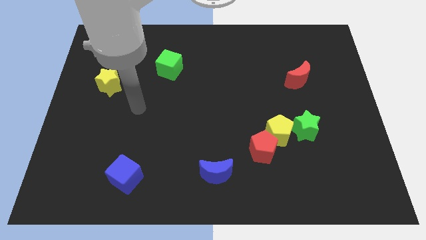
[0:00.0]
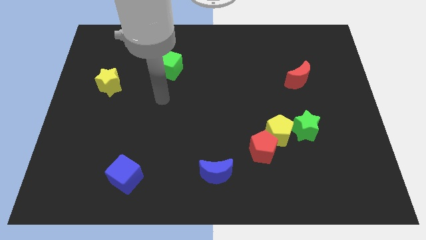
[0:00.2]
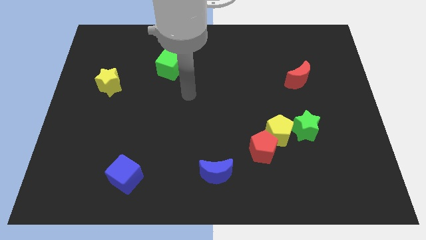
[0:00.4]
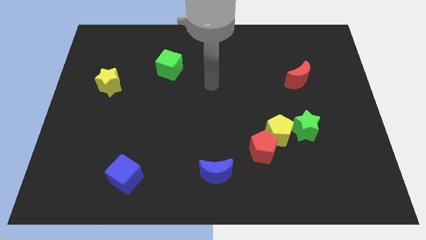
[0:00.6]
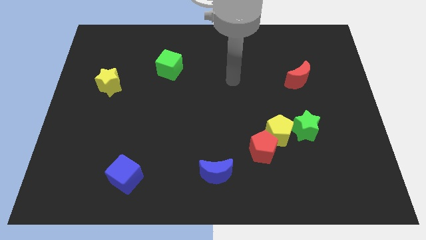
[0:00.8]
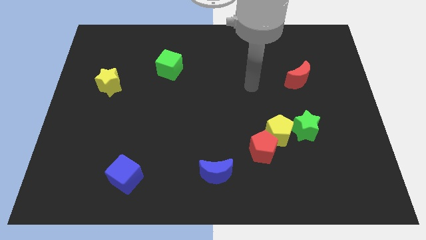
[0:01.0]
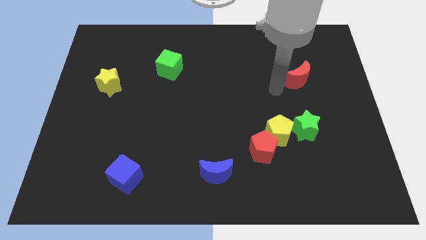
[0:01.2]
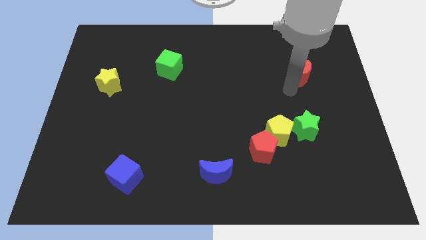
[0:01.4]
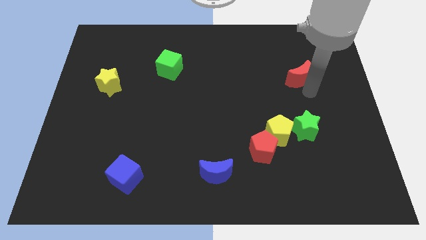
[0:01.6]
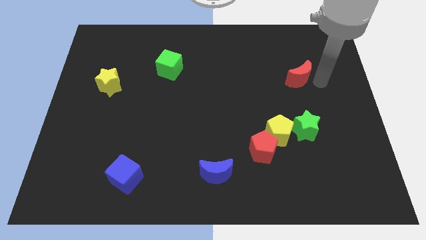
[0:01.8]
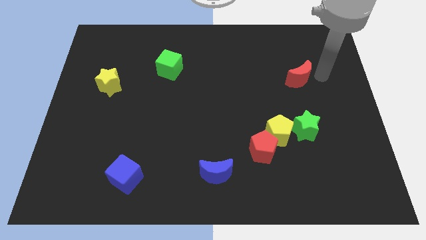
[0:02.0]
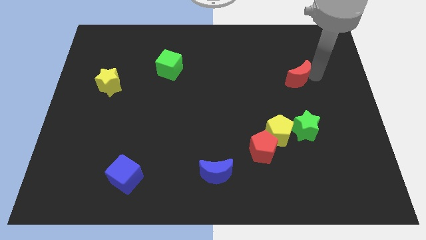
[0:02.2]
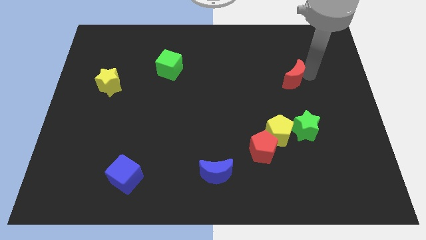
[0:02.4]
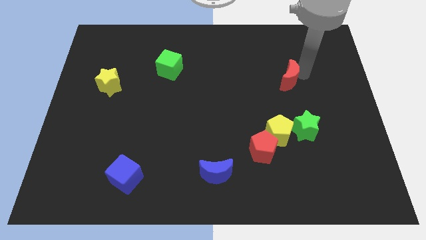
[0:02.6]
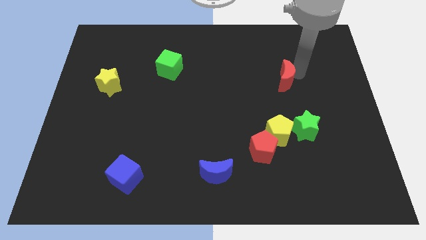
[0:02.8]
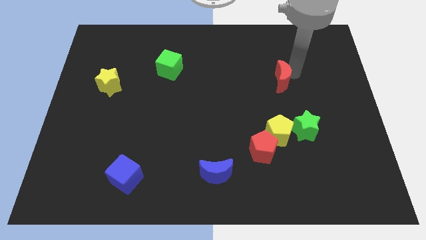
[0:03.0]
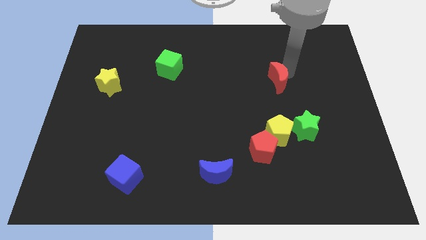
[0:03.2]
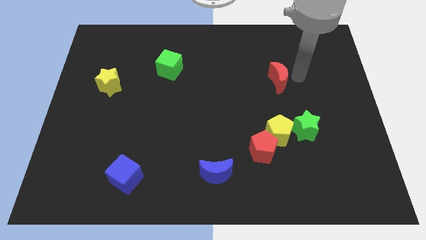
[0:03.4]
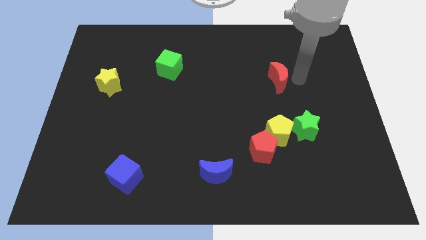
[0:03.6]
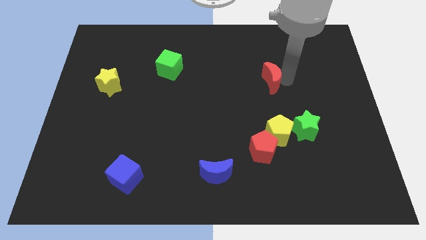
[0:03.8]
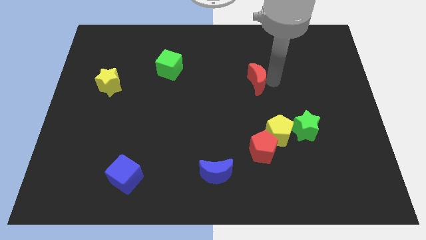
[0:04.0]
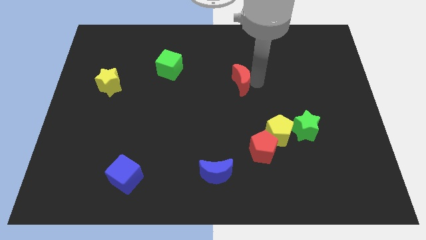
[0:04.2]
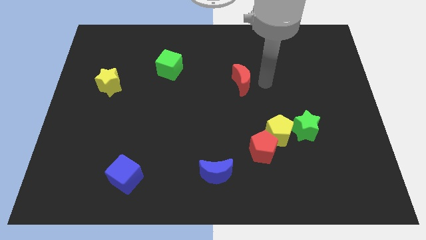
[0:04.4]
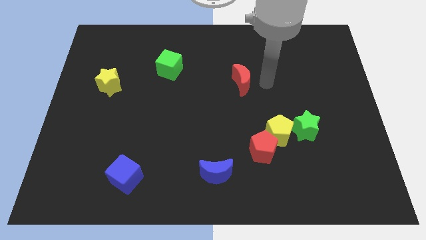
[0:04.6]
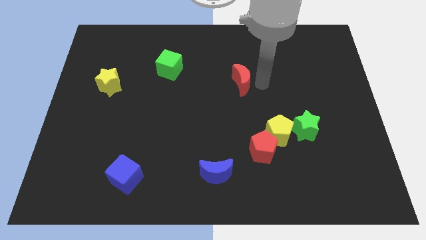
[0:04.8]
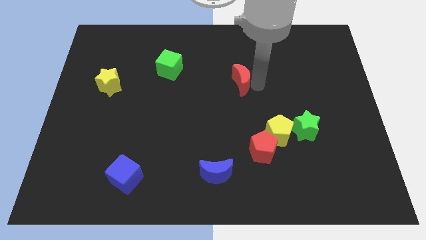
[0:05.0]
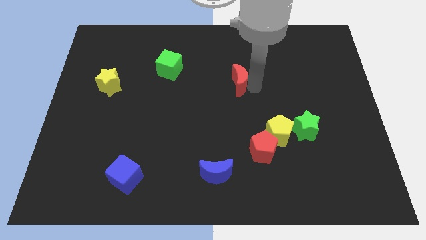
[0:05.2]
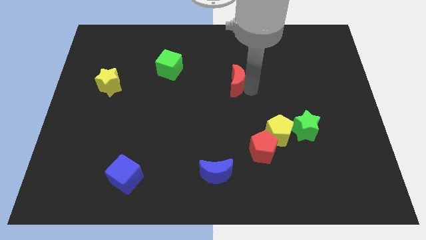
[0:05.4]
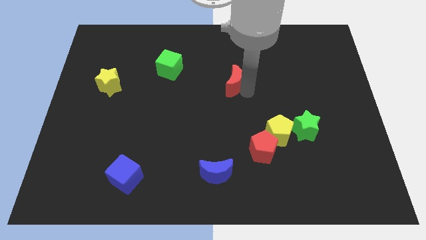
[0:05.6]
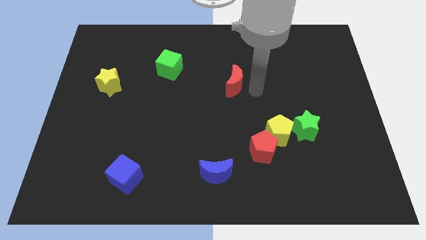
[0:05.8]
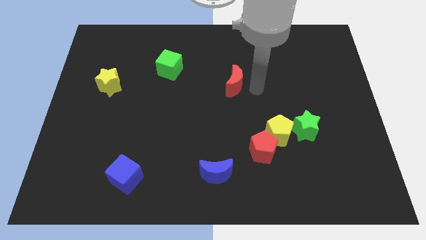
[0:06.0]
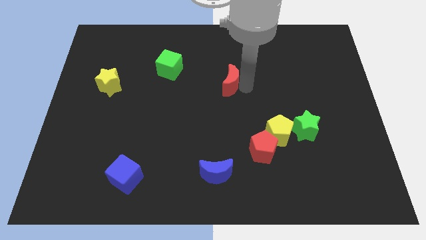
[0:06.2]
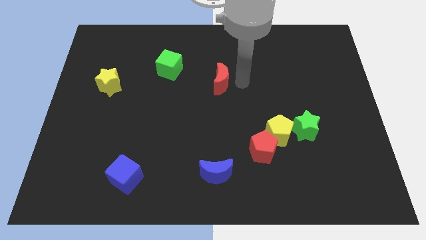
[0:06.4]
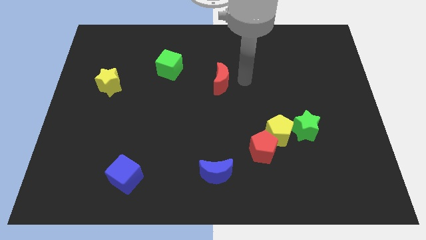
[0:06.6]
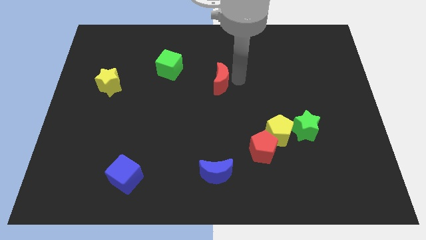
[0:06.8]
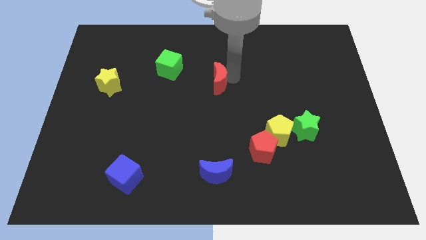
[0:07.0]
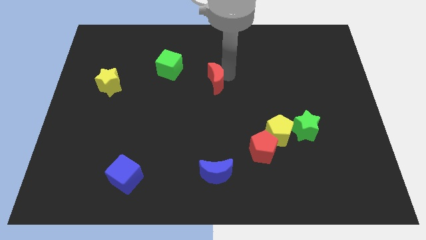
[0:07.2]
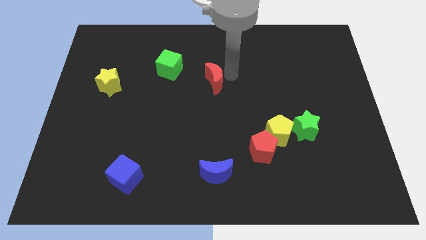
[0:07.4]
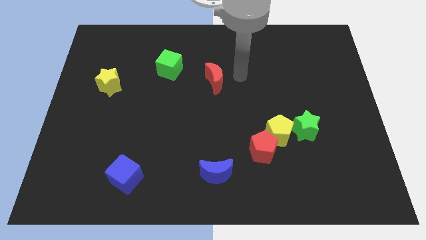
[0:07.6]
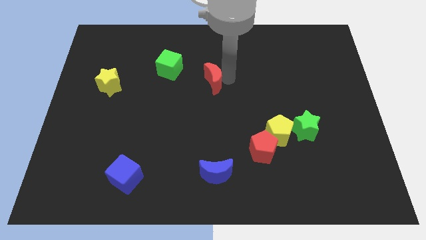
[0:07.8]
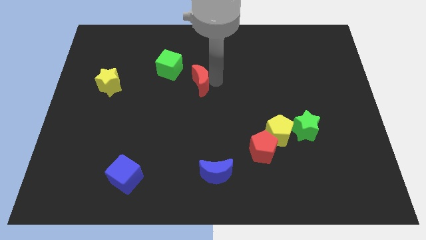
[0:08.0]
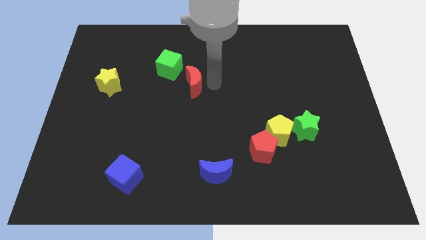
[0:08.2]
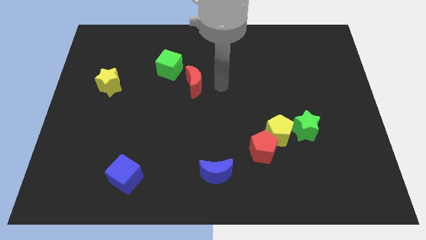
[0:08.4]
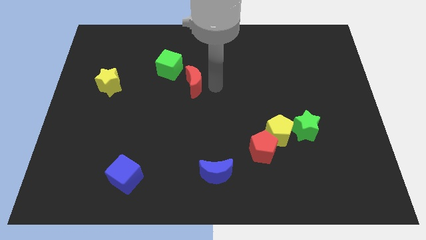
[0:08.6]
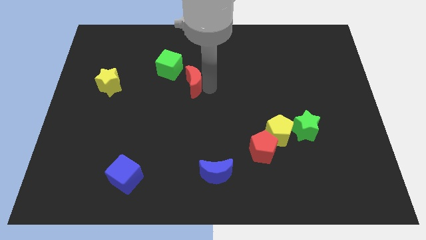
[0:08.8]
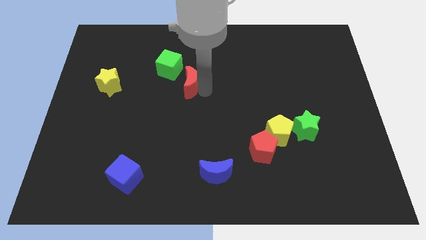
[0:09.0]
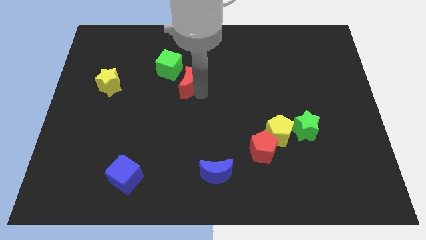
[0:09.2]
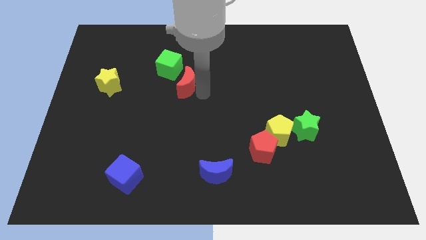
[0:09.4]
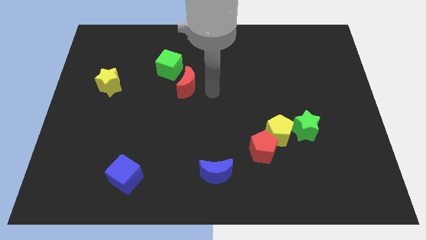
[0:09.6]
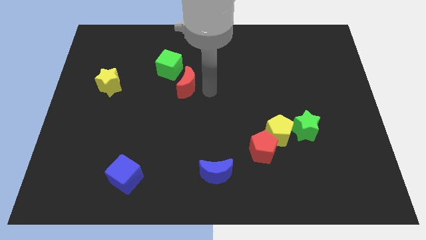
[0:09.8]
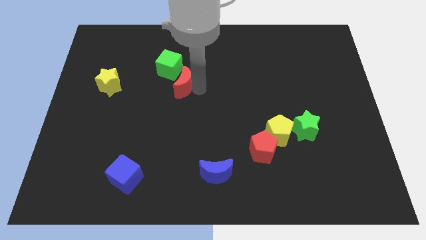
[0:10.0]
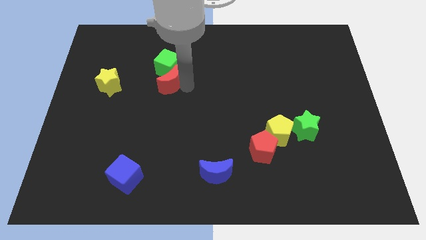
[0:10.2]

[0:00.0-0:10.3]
put the red moon to the right of the yellow star

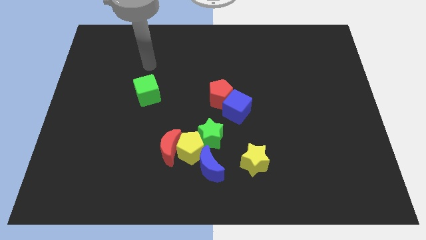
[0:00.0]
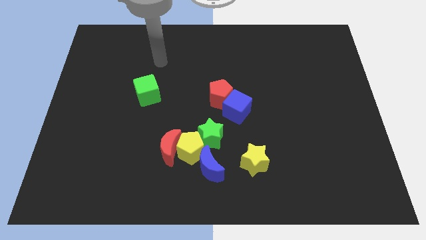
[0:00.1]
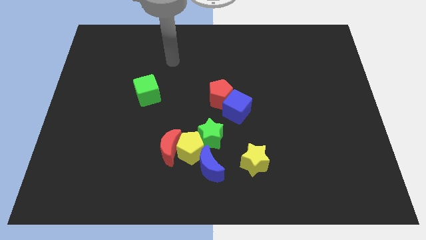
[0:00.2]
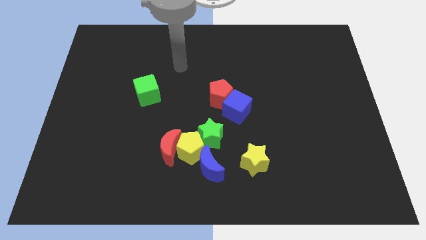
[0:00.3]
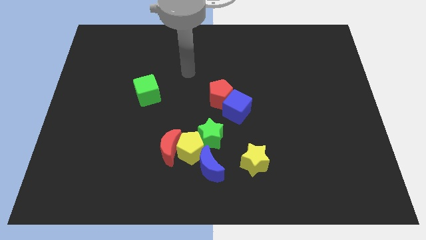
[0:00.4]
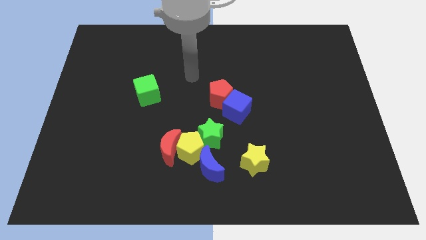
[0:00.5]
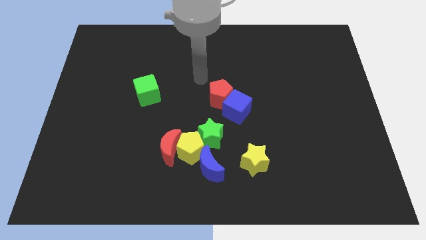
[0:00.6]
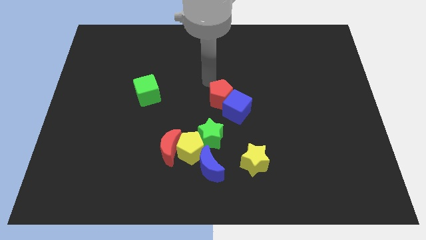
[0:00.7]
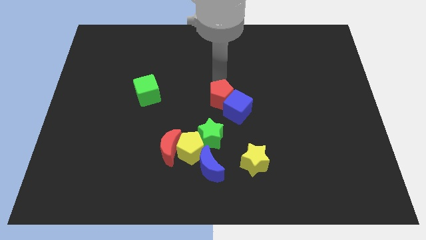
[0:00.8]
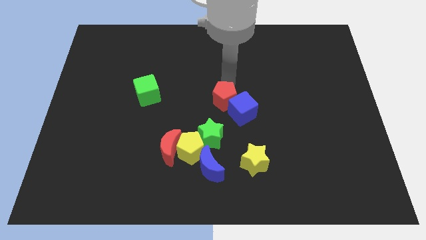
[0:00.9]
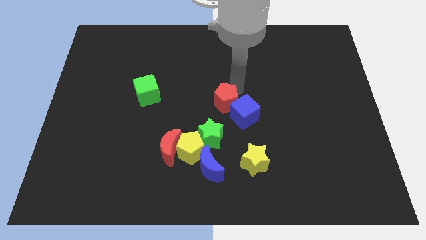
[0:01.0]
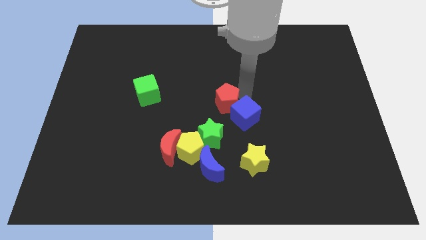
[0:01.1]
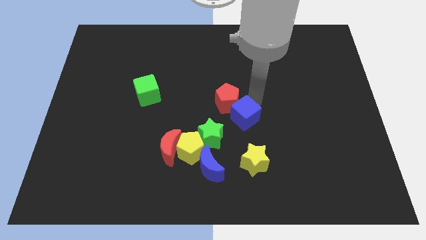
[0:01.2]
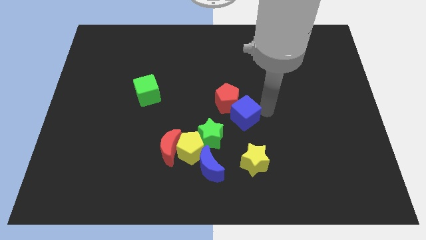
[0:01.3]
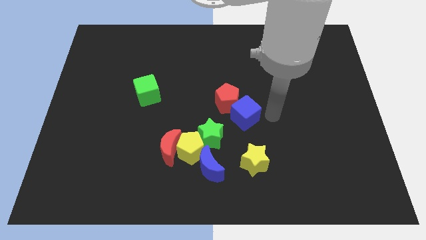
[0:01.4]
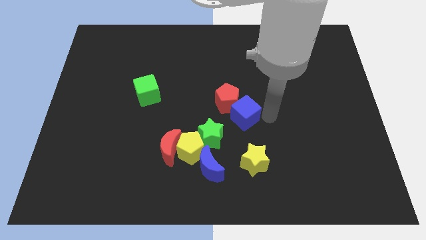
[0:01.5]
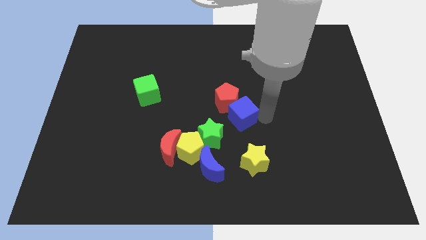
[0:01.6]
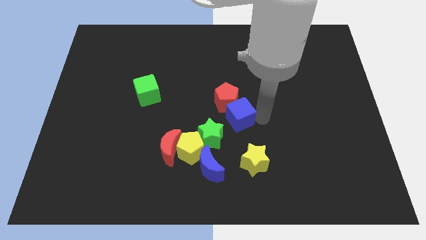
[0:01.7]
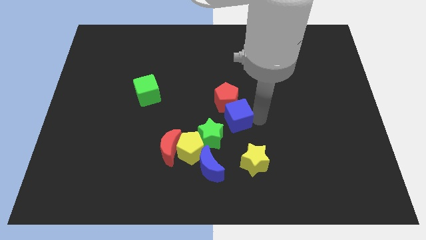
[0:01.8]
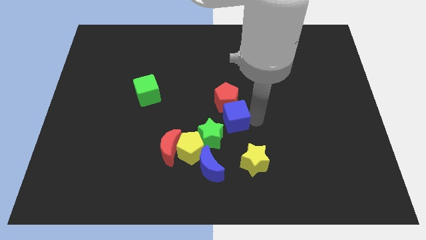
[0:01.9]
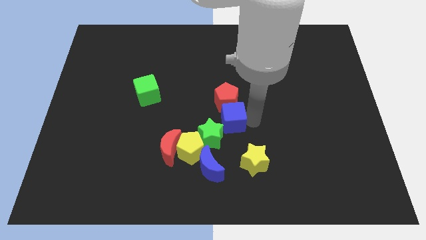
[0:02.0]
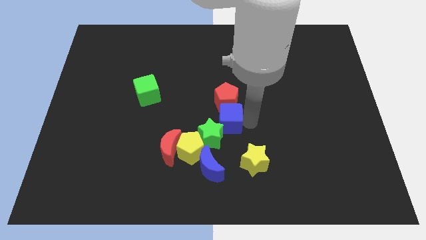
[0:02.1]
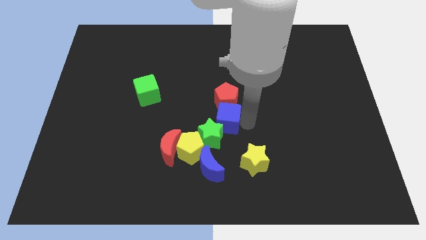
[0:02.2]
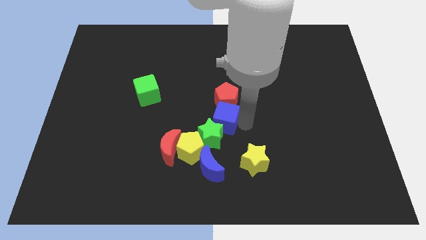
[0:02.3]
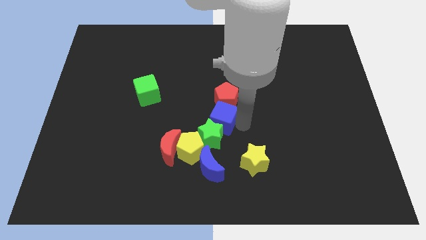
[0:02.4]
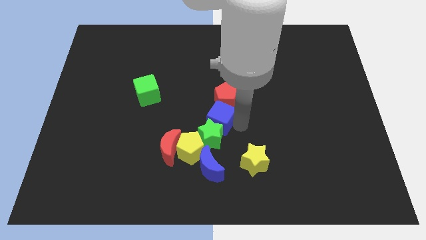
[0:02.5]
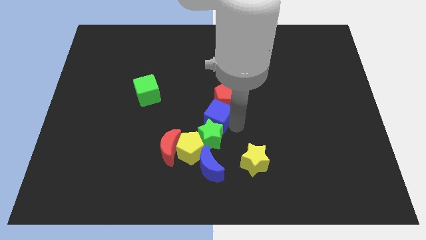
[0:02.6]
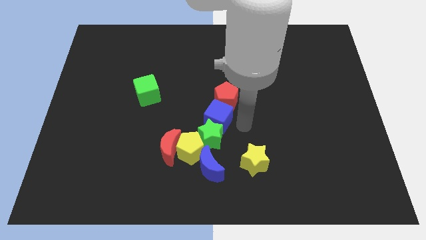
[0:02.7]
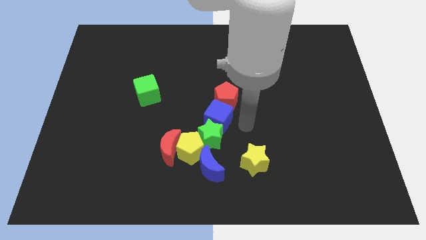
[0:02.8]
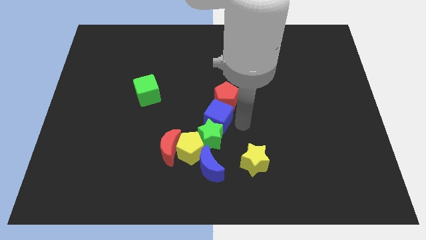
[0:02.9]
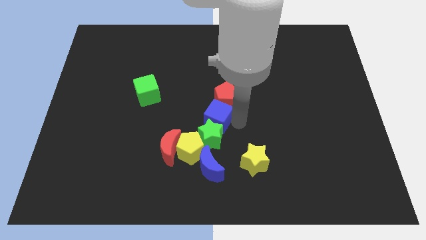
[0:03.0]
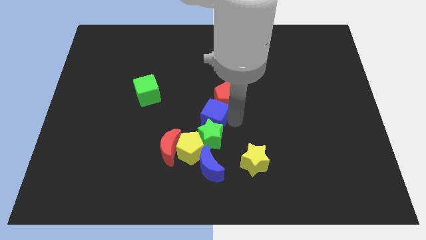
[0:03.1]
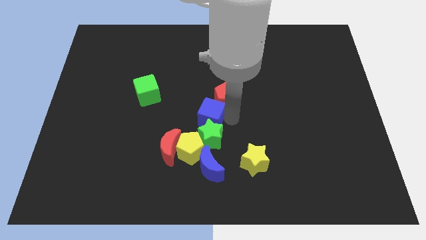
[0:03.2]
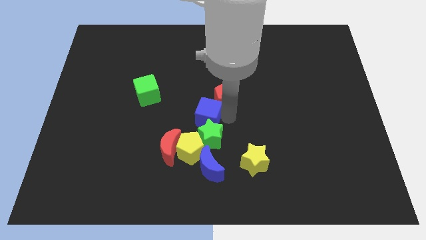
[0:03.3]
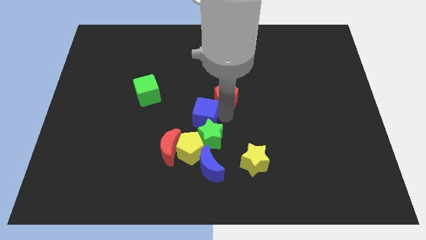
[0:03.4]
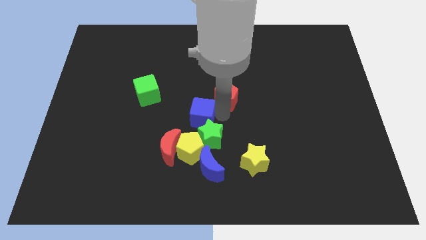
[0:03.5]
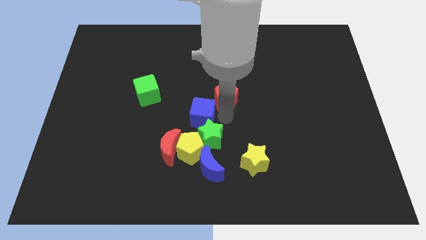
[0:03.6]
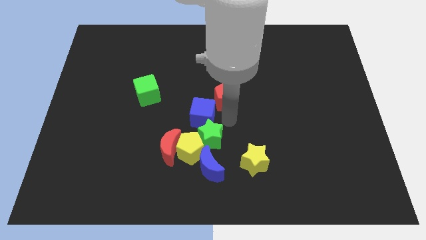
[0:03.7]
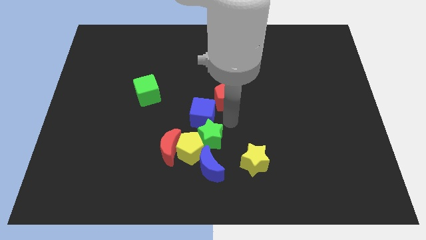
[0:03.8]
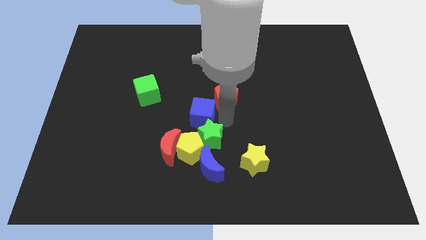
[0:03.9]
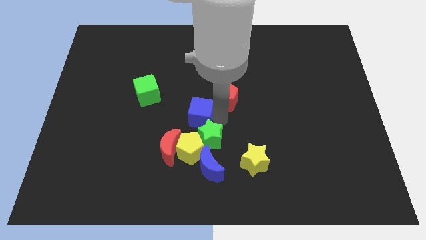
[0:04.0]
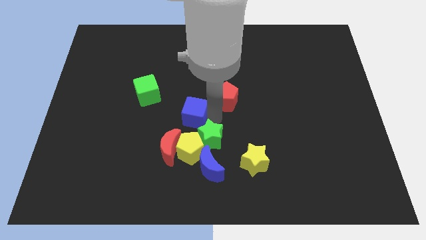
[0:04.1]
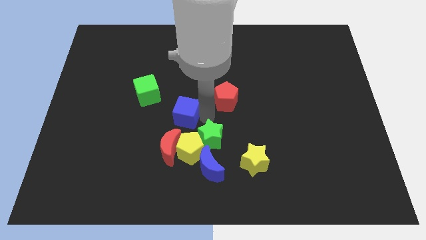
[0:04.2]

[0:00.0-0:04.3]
slide the blue cube to the bottom right of the green cube
